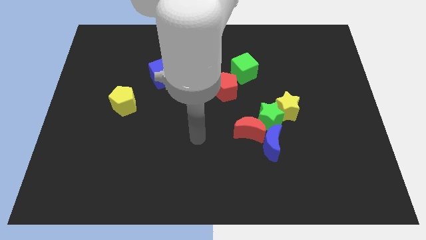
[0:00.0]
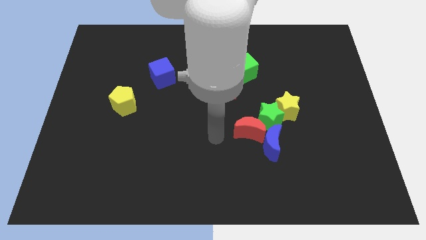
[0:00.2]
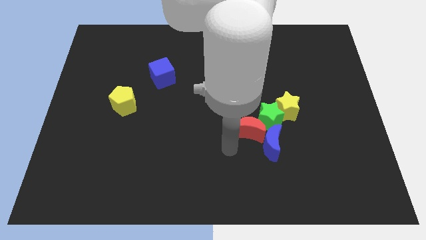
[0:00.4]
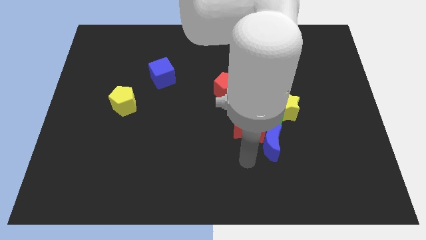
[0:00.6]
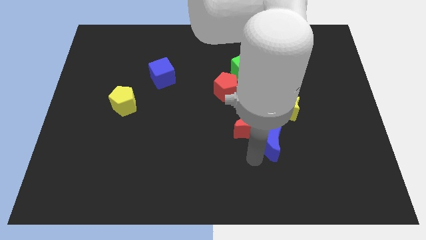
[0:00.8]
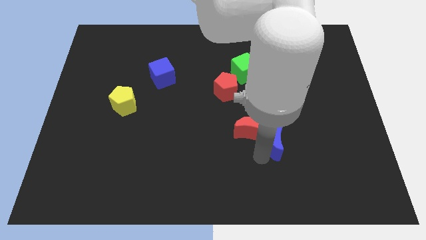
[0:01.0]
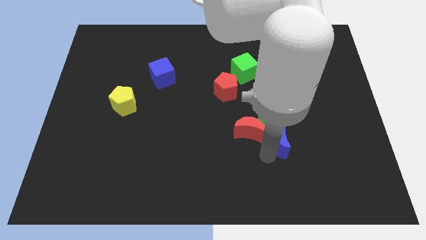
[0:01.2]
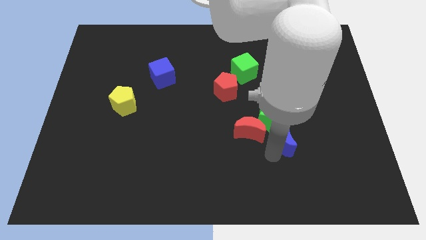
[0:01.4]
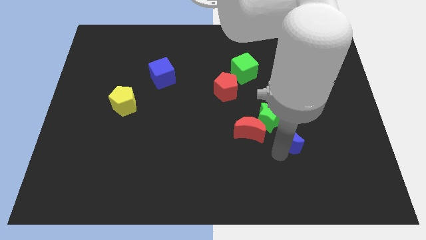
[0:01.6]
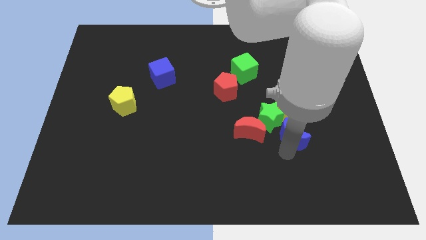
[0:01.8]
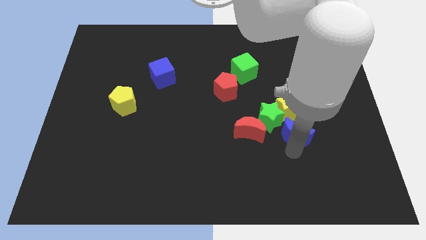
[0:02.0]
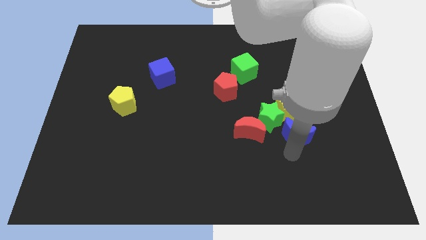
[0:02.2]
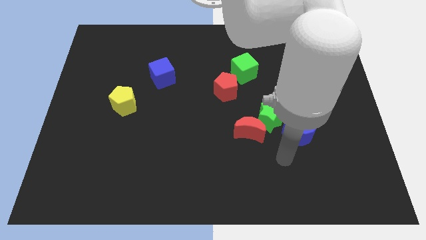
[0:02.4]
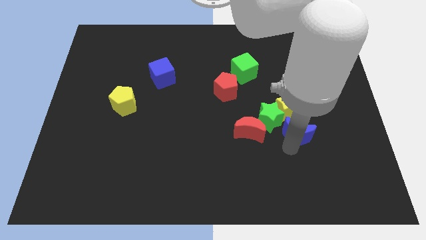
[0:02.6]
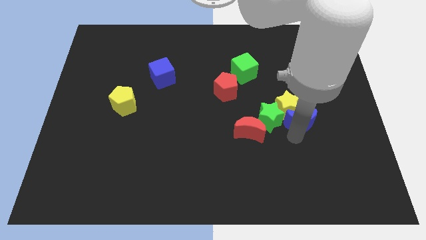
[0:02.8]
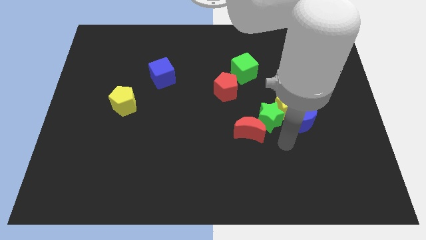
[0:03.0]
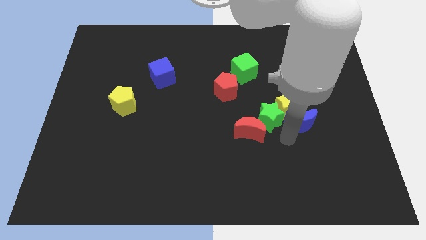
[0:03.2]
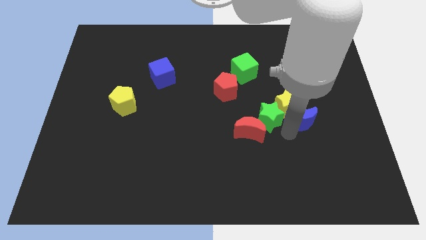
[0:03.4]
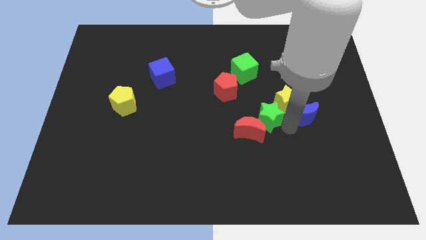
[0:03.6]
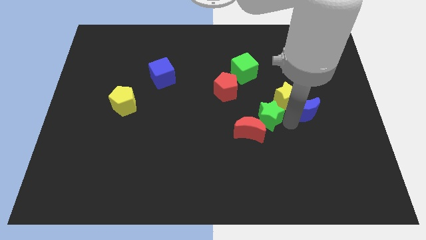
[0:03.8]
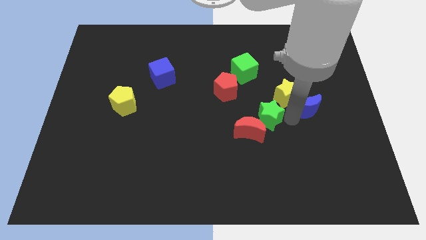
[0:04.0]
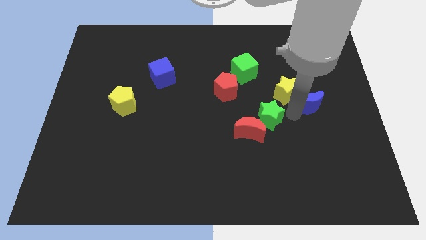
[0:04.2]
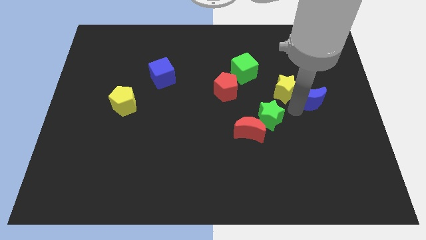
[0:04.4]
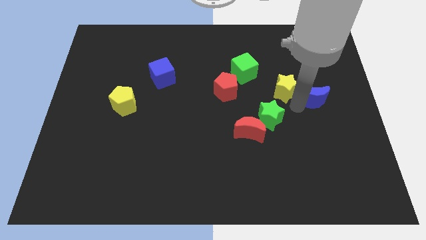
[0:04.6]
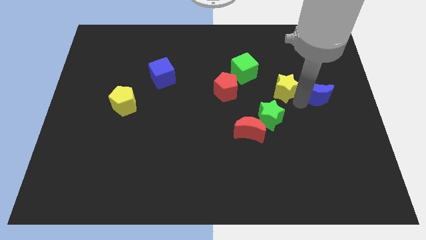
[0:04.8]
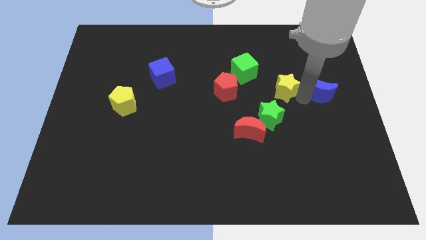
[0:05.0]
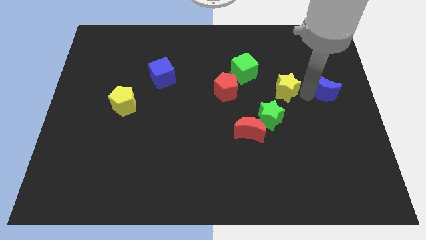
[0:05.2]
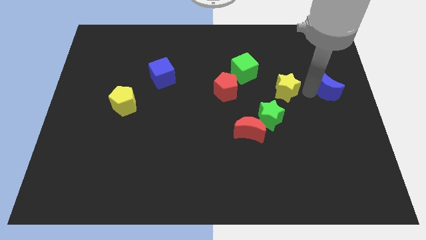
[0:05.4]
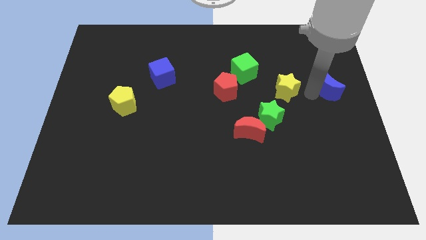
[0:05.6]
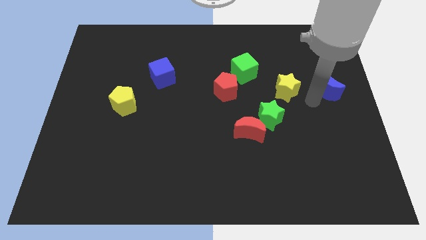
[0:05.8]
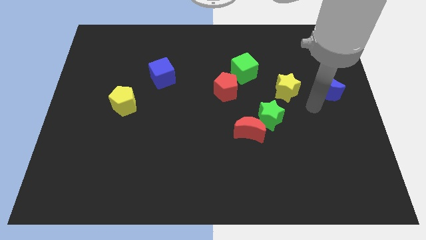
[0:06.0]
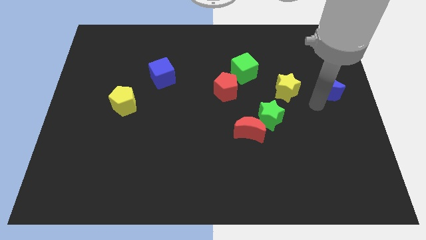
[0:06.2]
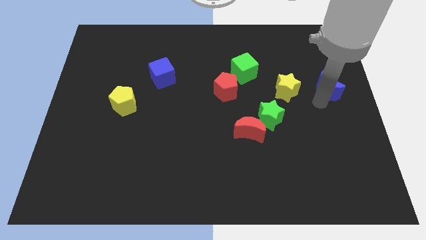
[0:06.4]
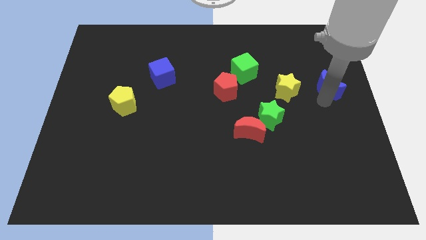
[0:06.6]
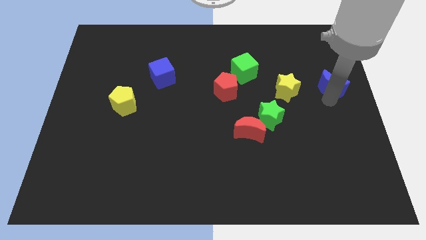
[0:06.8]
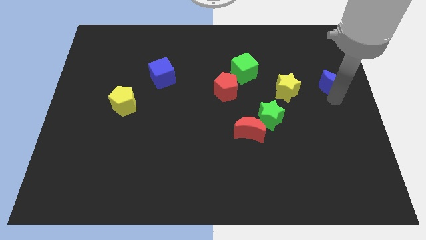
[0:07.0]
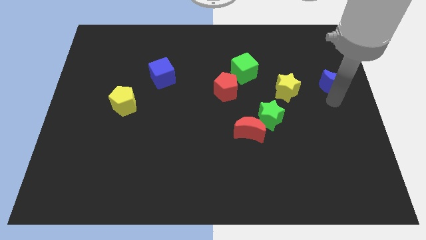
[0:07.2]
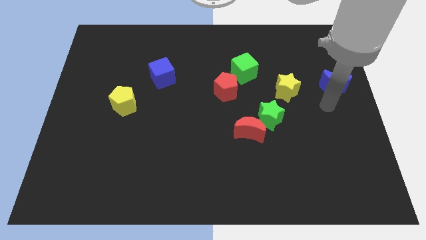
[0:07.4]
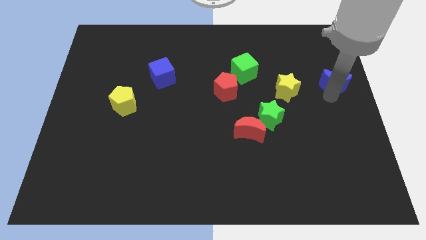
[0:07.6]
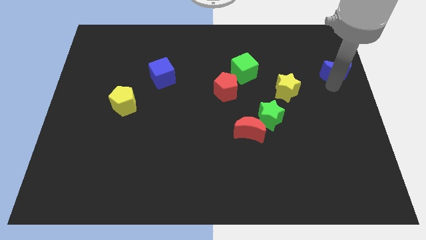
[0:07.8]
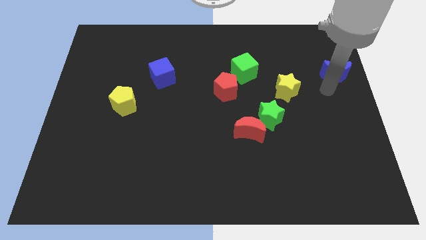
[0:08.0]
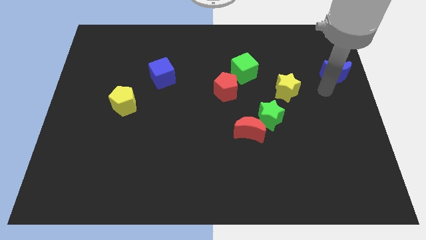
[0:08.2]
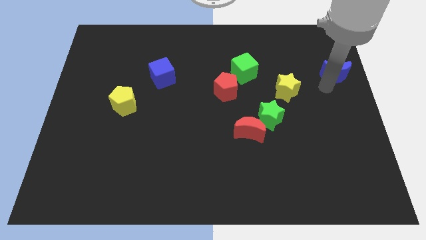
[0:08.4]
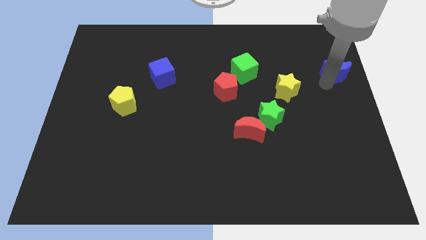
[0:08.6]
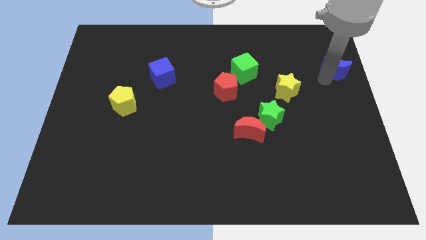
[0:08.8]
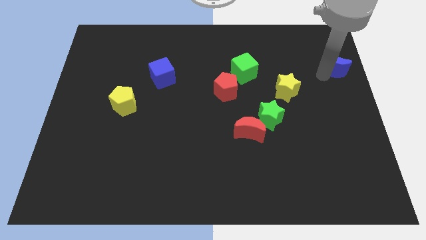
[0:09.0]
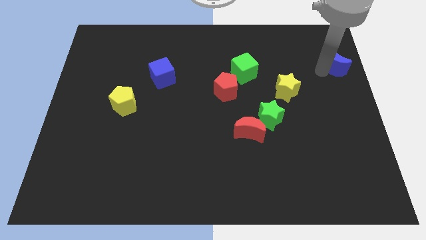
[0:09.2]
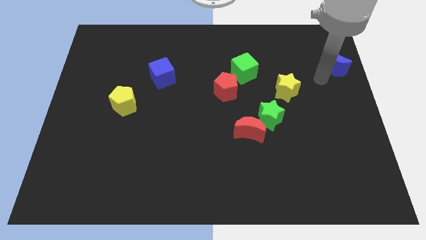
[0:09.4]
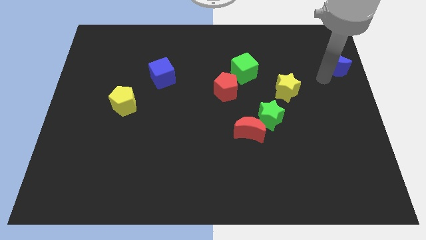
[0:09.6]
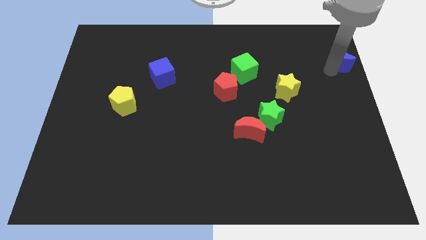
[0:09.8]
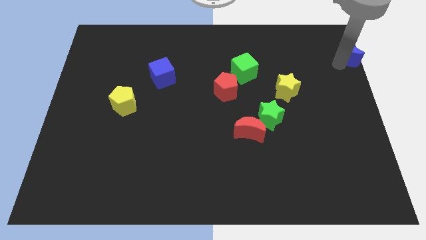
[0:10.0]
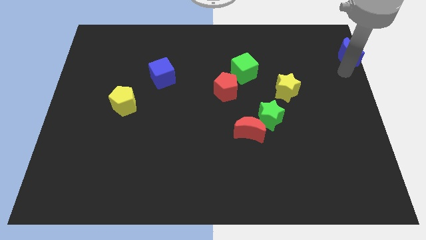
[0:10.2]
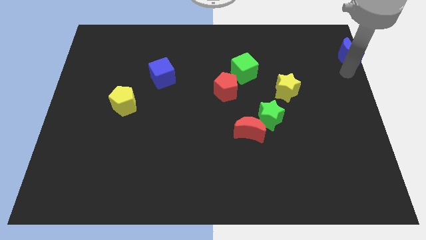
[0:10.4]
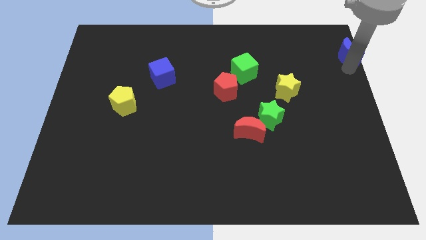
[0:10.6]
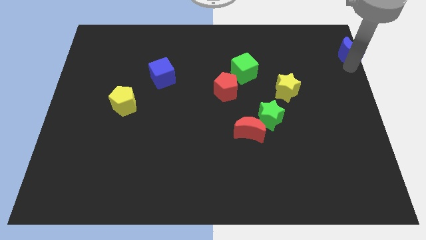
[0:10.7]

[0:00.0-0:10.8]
move the blue moon to the top right of the board

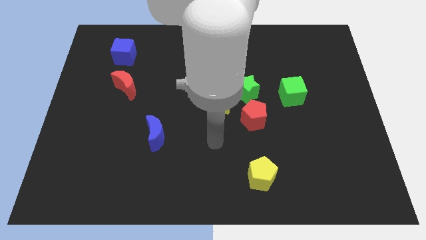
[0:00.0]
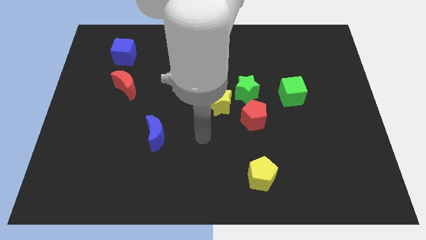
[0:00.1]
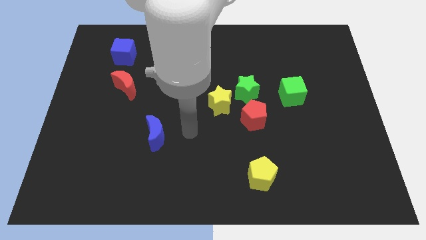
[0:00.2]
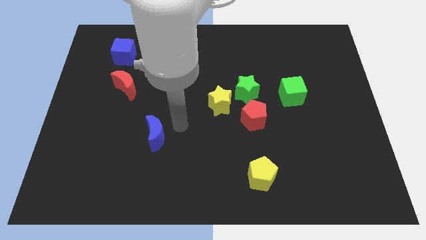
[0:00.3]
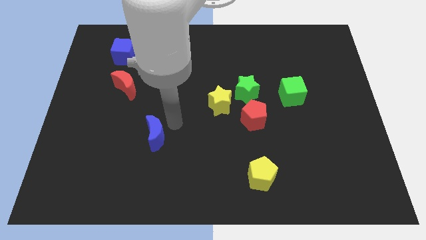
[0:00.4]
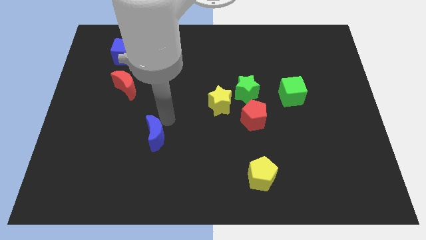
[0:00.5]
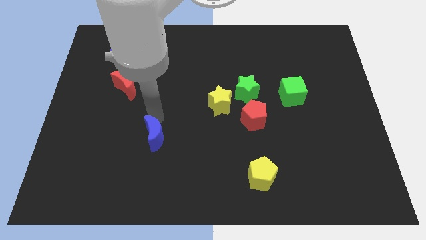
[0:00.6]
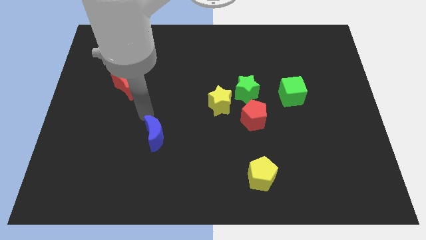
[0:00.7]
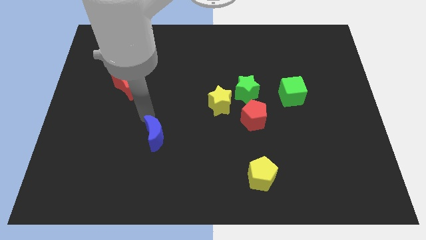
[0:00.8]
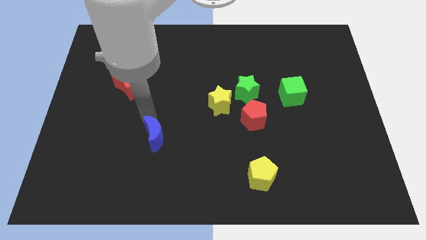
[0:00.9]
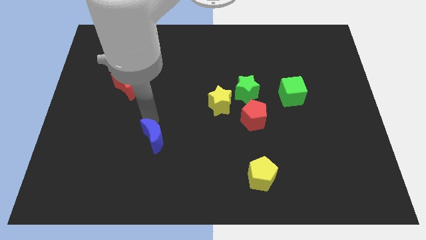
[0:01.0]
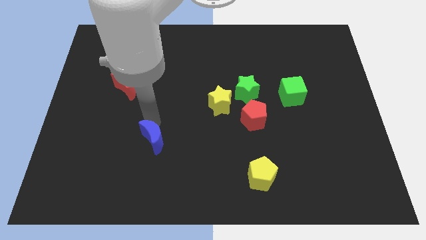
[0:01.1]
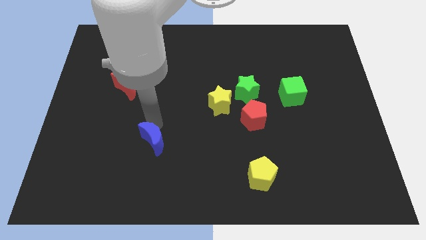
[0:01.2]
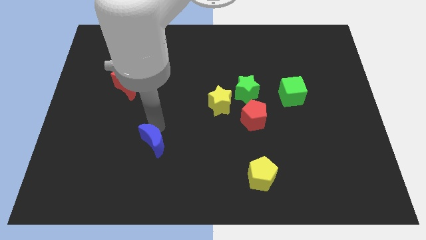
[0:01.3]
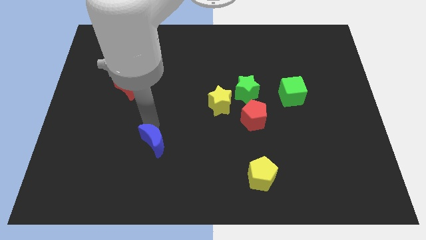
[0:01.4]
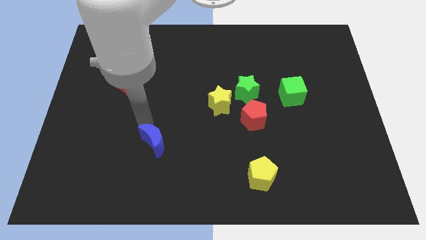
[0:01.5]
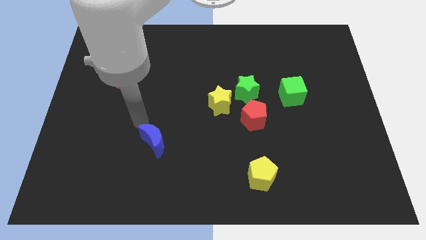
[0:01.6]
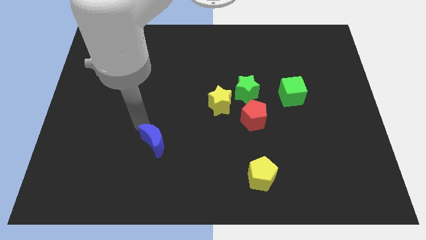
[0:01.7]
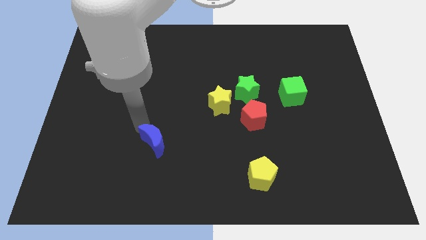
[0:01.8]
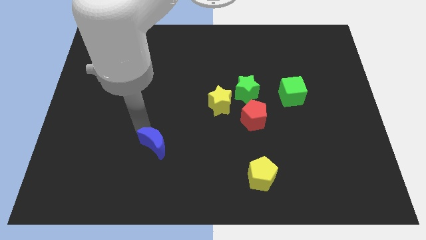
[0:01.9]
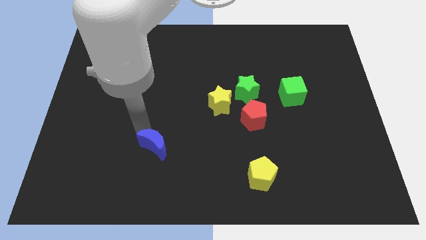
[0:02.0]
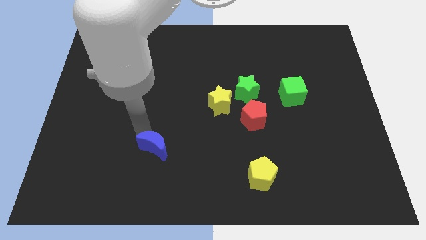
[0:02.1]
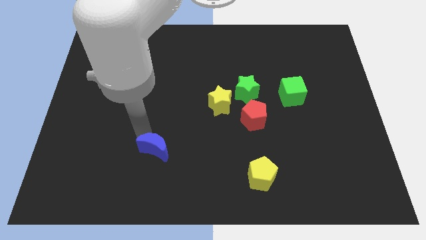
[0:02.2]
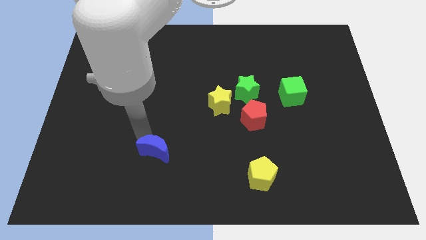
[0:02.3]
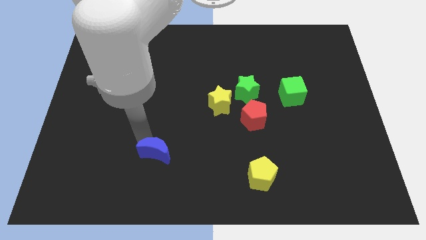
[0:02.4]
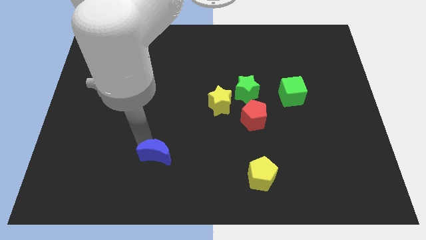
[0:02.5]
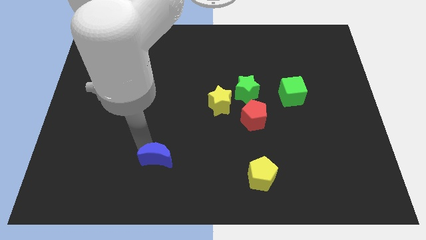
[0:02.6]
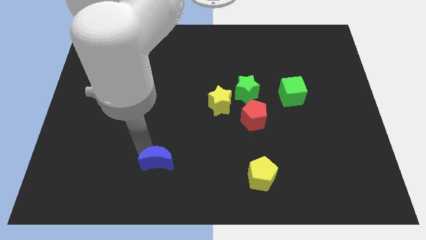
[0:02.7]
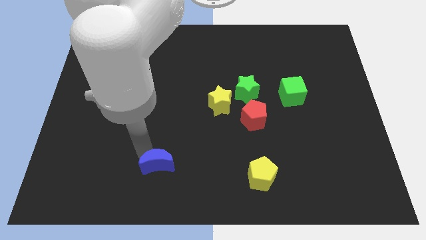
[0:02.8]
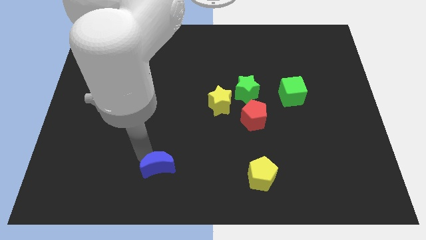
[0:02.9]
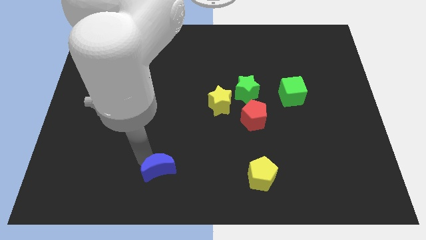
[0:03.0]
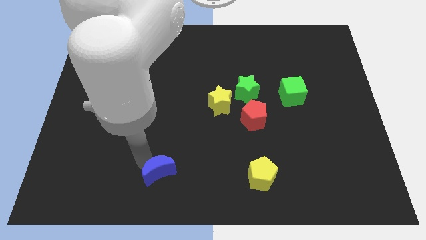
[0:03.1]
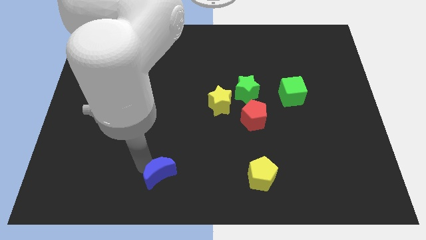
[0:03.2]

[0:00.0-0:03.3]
move the blue moon to the bottom side
